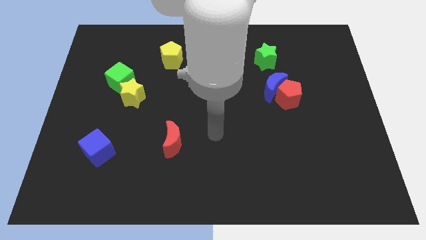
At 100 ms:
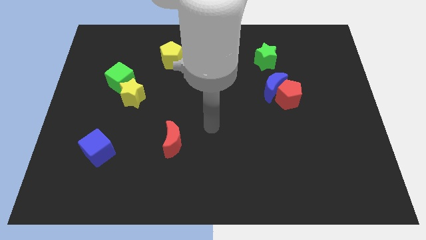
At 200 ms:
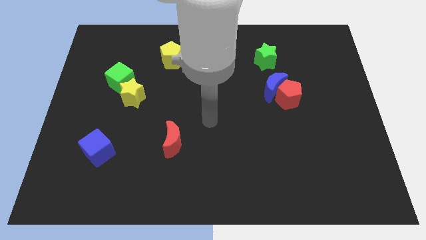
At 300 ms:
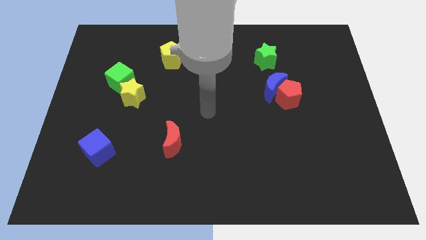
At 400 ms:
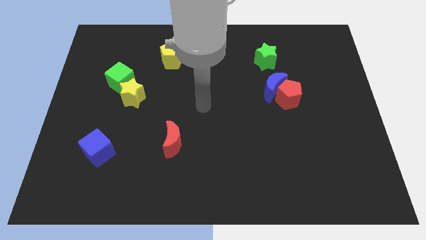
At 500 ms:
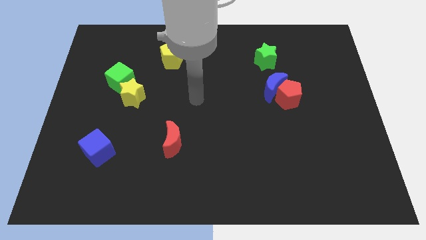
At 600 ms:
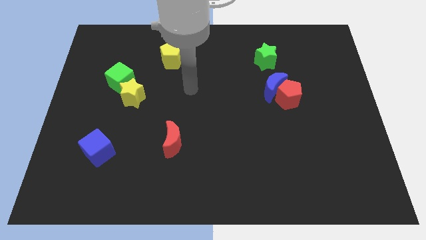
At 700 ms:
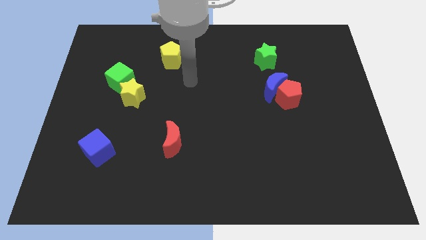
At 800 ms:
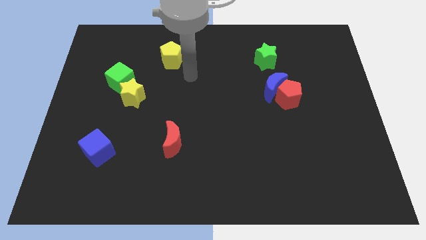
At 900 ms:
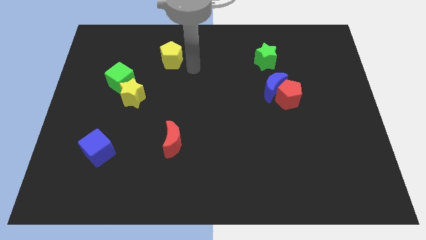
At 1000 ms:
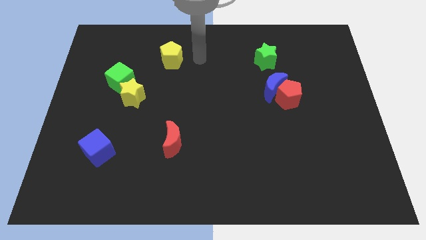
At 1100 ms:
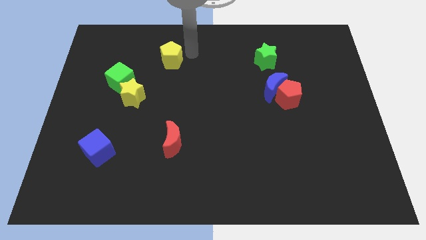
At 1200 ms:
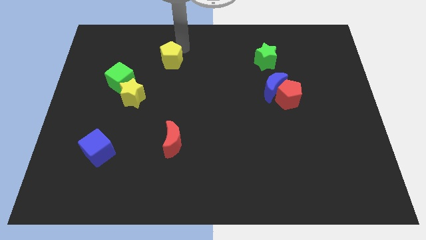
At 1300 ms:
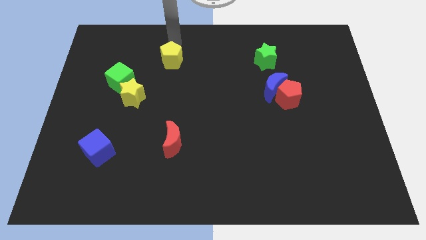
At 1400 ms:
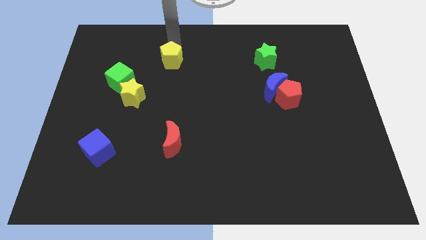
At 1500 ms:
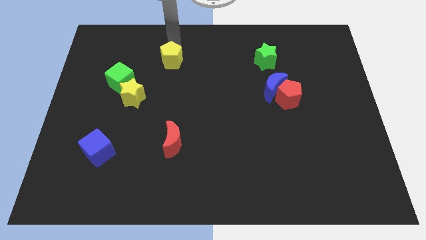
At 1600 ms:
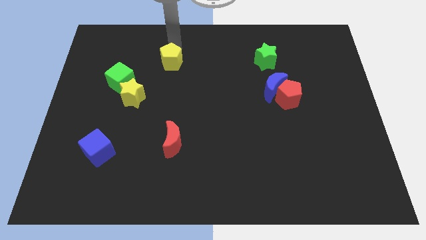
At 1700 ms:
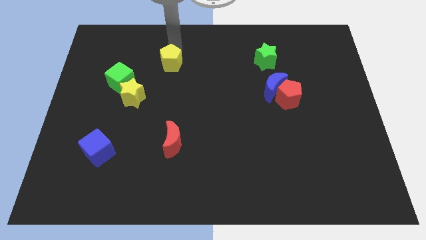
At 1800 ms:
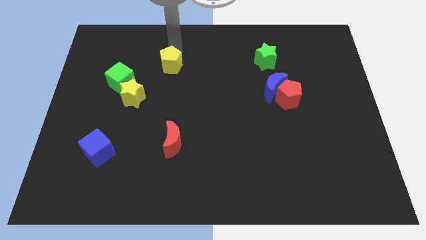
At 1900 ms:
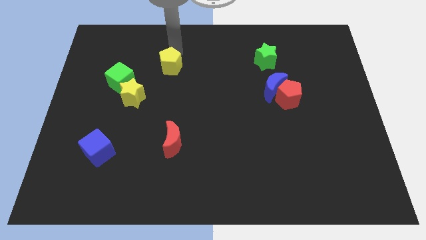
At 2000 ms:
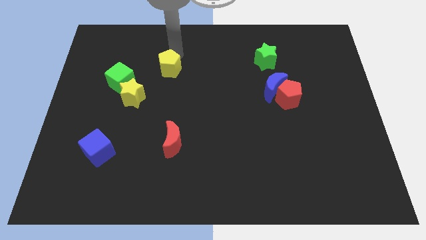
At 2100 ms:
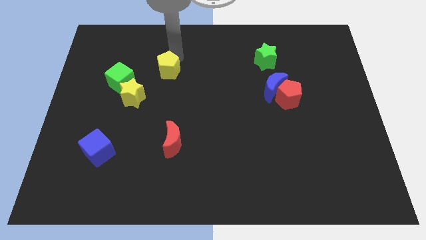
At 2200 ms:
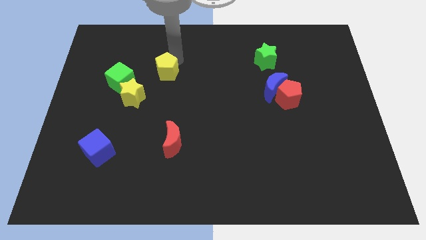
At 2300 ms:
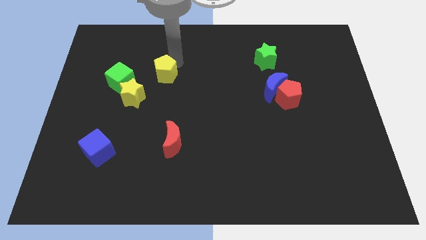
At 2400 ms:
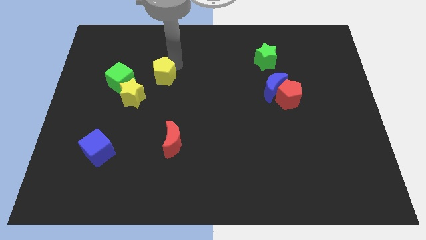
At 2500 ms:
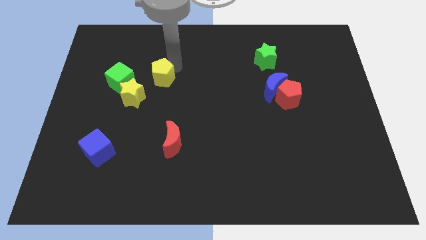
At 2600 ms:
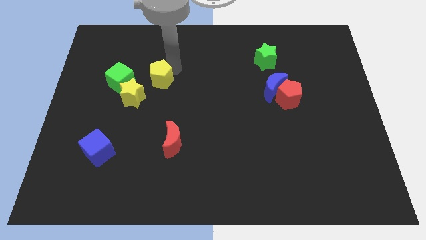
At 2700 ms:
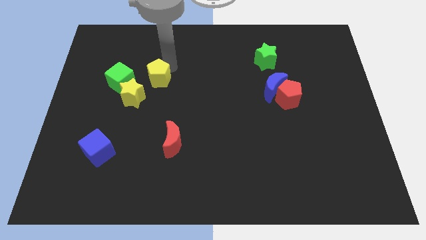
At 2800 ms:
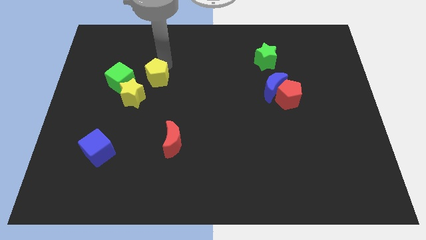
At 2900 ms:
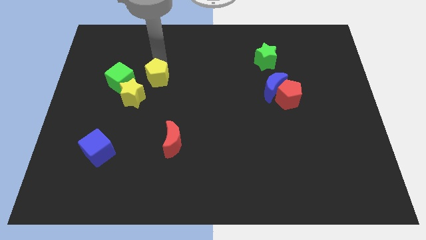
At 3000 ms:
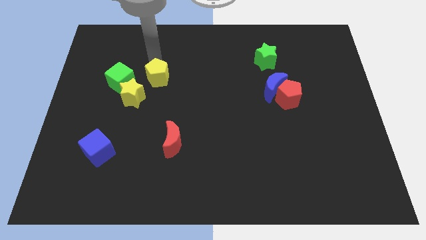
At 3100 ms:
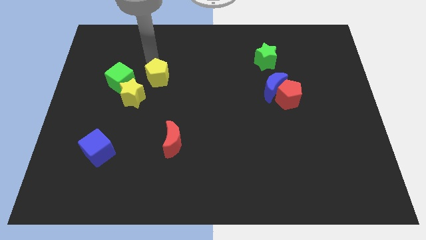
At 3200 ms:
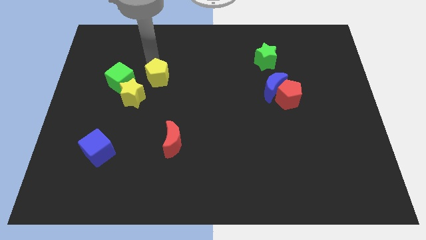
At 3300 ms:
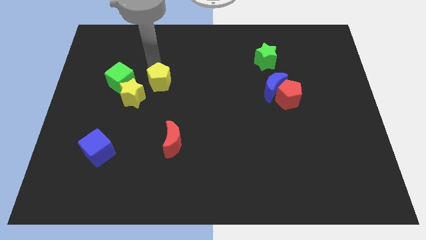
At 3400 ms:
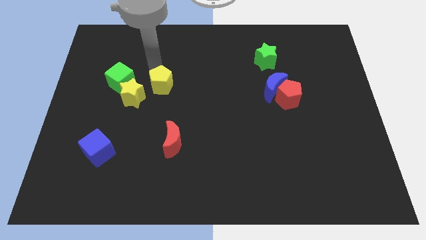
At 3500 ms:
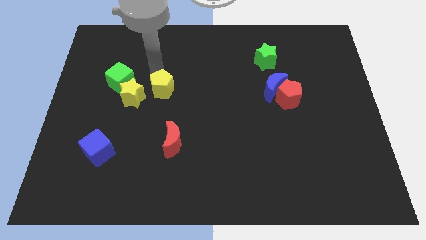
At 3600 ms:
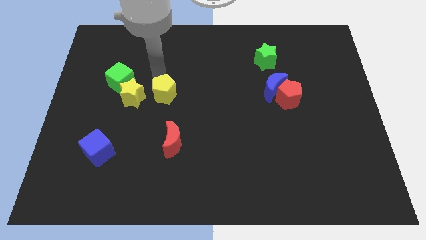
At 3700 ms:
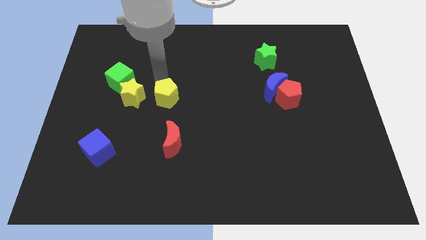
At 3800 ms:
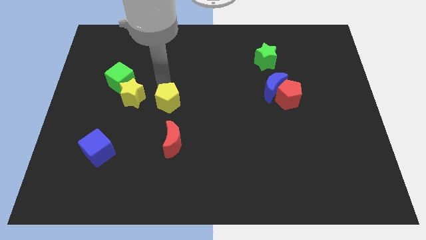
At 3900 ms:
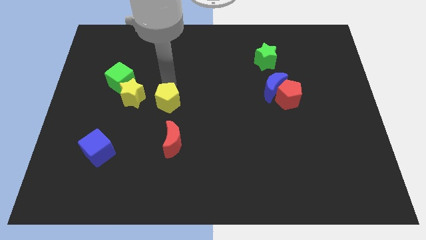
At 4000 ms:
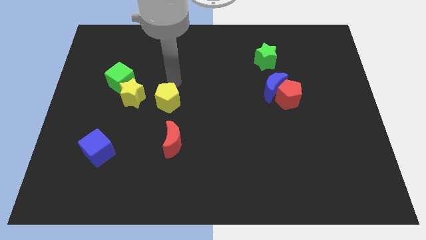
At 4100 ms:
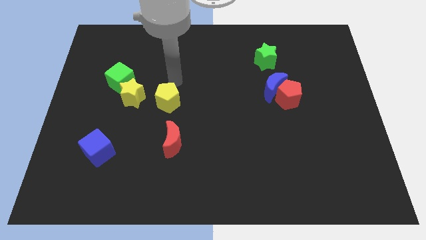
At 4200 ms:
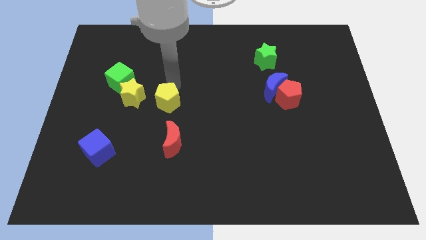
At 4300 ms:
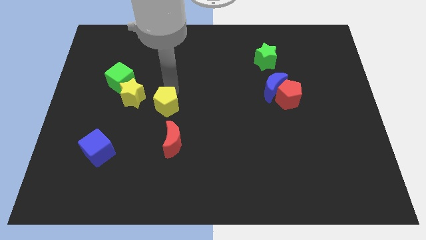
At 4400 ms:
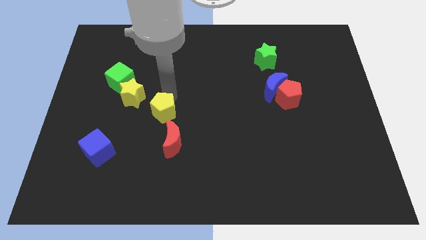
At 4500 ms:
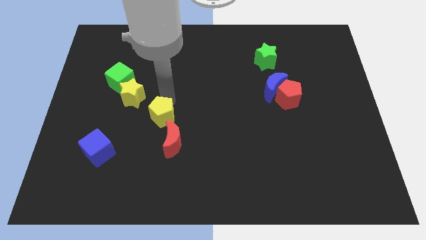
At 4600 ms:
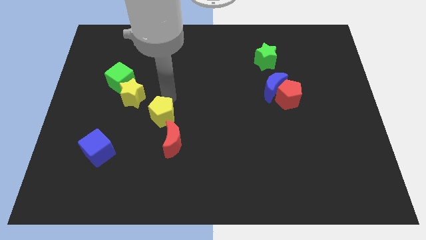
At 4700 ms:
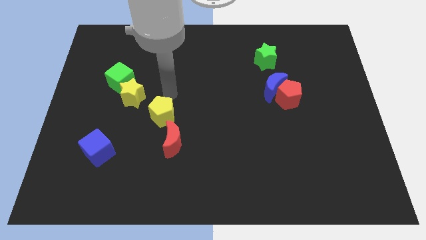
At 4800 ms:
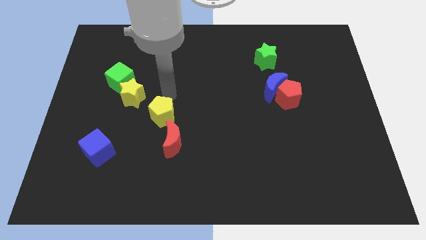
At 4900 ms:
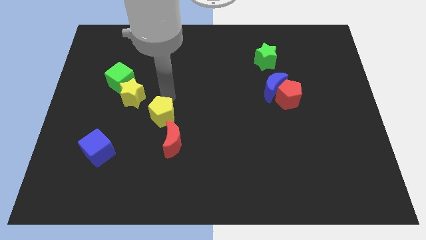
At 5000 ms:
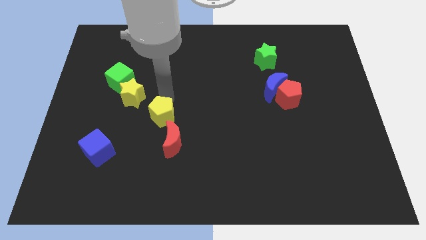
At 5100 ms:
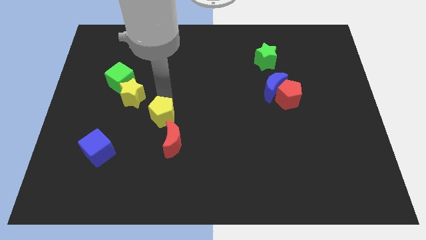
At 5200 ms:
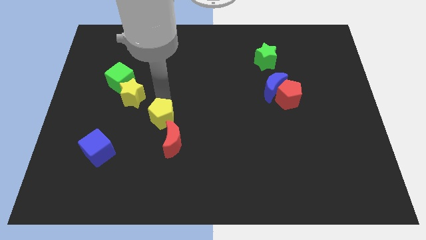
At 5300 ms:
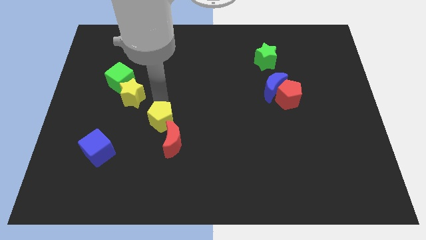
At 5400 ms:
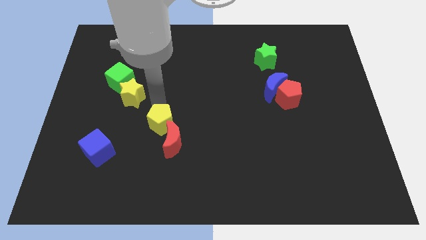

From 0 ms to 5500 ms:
move the yellow pentagon down

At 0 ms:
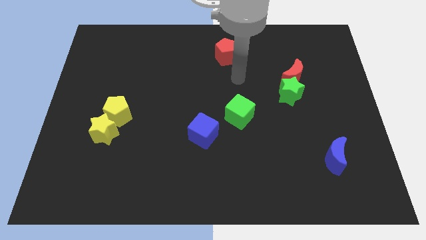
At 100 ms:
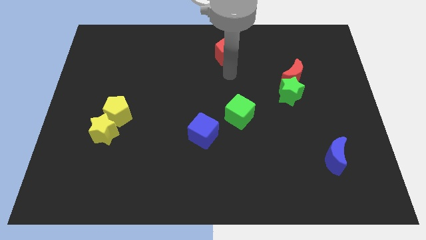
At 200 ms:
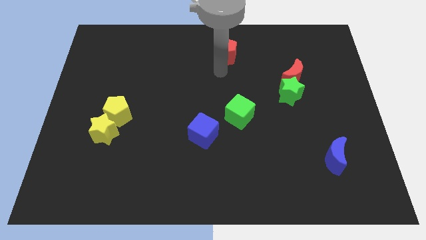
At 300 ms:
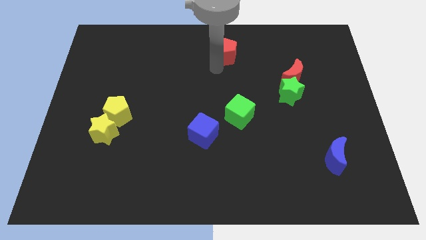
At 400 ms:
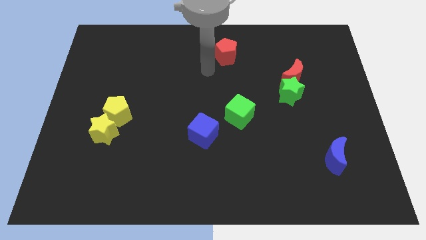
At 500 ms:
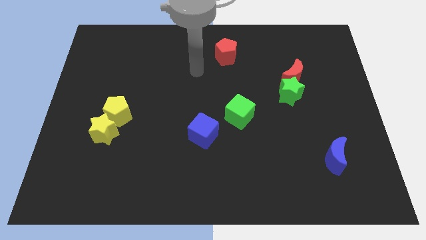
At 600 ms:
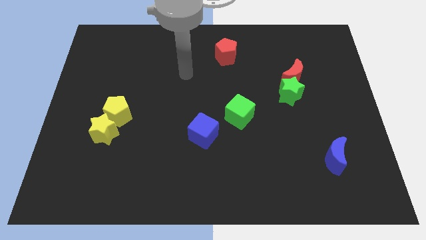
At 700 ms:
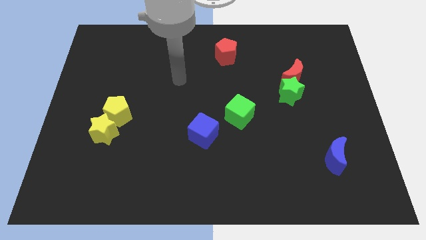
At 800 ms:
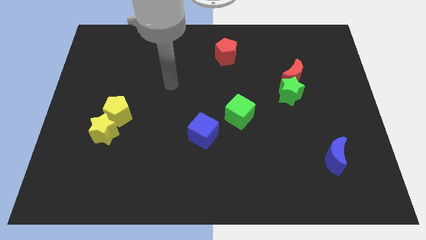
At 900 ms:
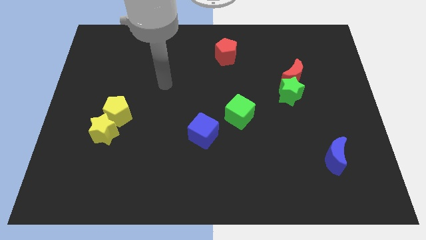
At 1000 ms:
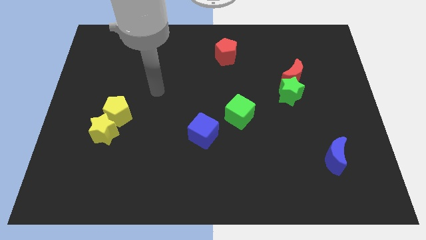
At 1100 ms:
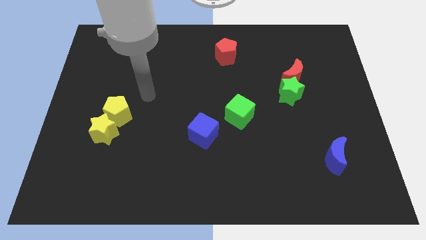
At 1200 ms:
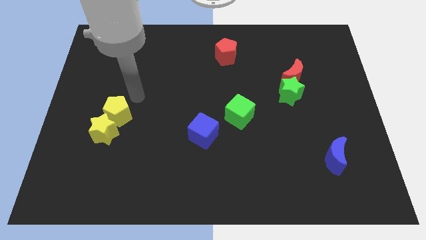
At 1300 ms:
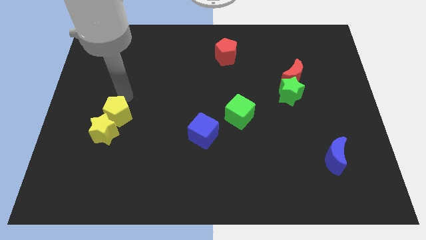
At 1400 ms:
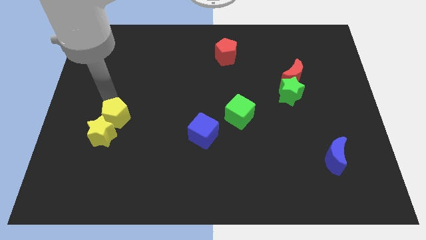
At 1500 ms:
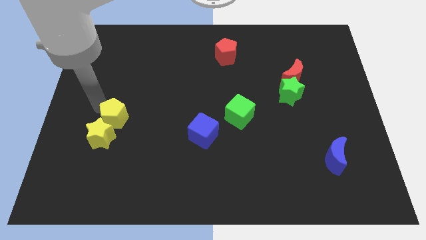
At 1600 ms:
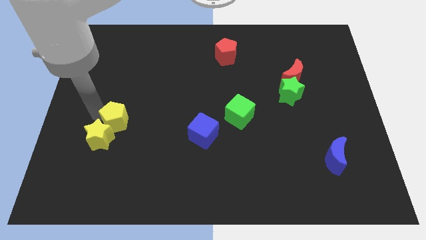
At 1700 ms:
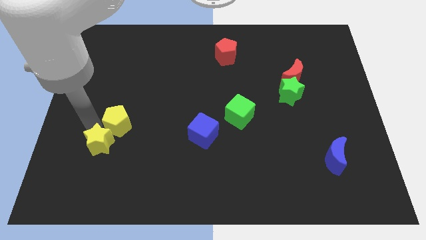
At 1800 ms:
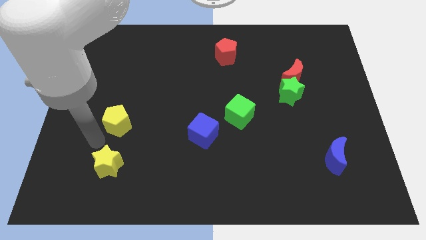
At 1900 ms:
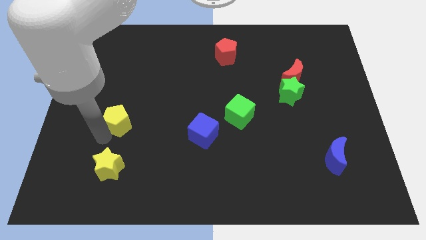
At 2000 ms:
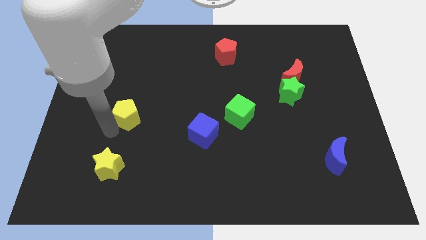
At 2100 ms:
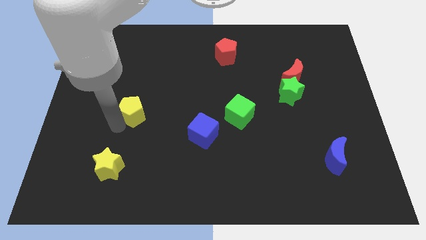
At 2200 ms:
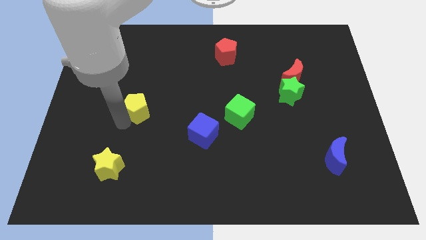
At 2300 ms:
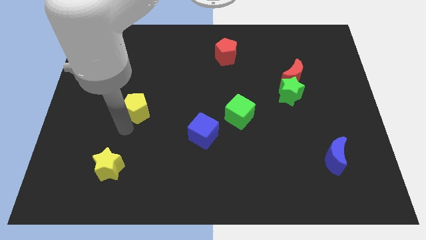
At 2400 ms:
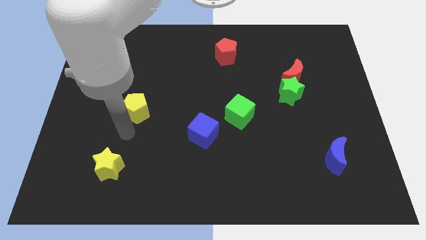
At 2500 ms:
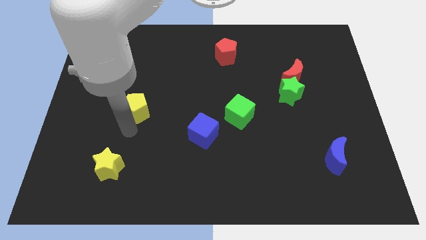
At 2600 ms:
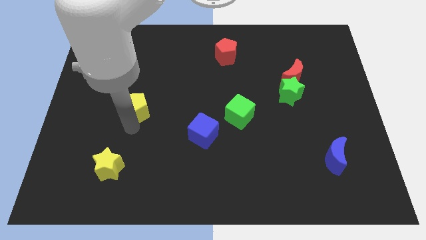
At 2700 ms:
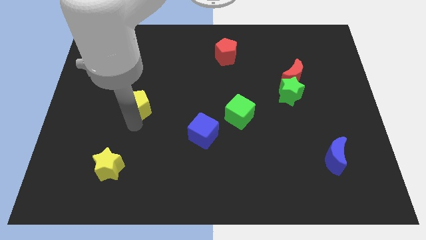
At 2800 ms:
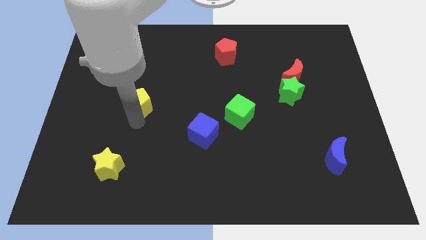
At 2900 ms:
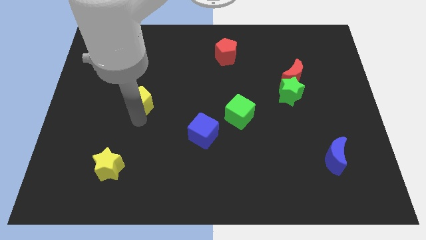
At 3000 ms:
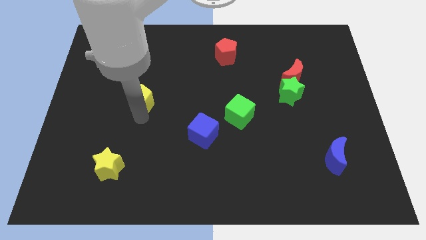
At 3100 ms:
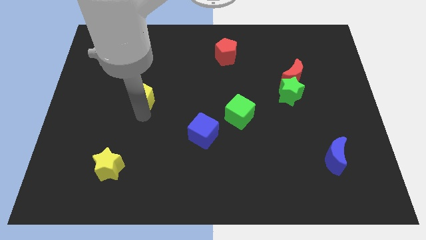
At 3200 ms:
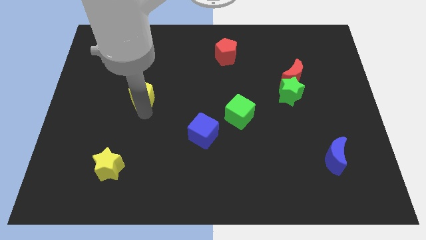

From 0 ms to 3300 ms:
push the yellow pentagon upwards and to the right diagonally a bit
